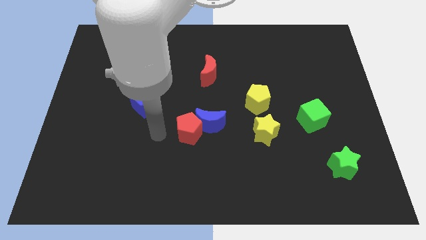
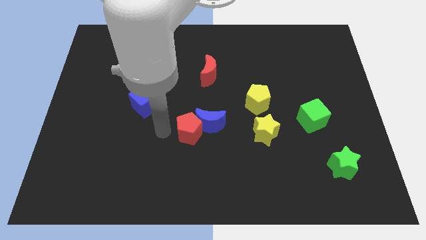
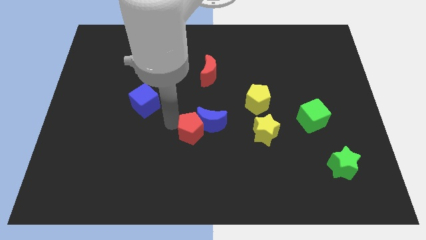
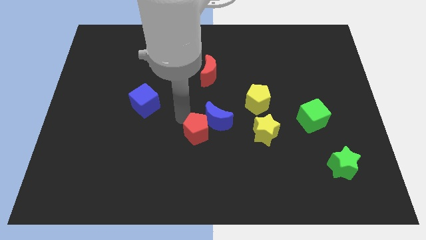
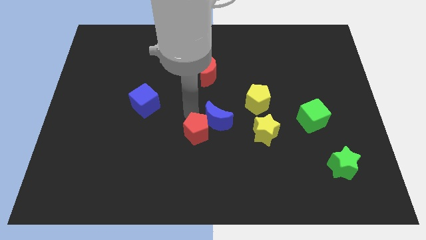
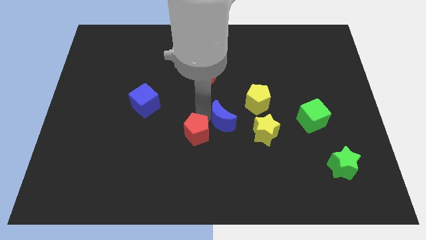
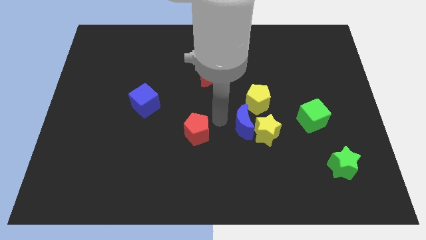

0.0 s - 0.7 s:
pull the red pentagon apart from the blue moon

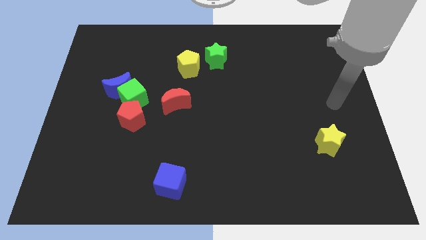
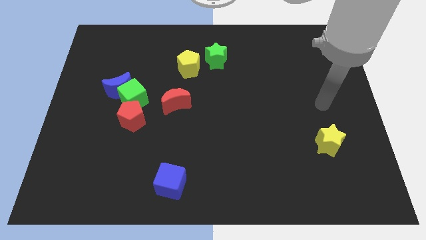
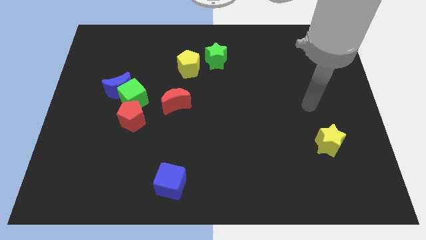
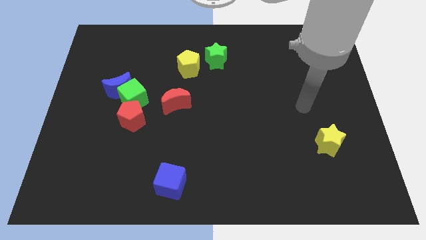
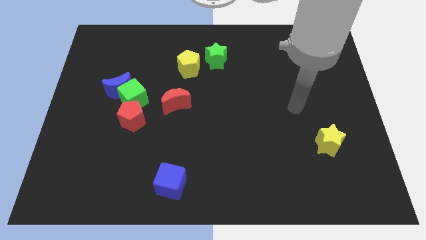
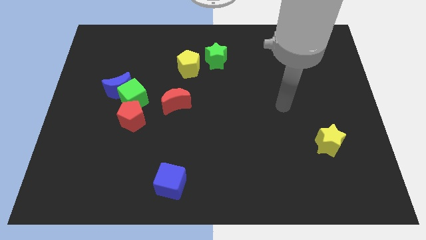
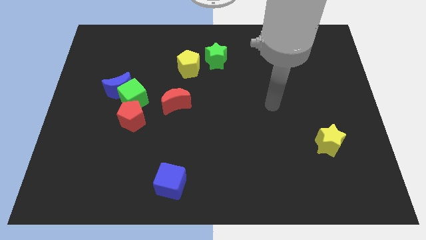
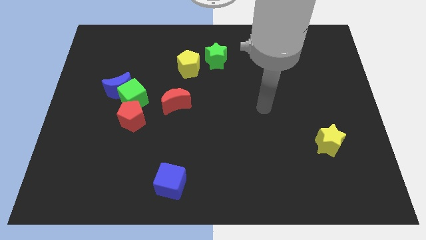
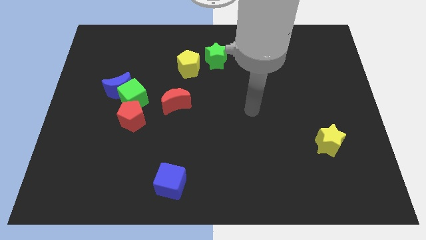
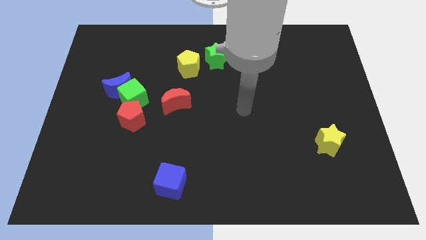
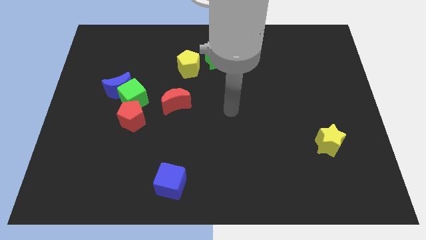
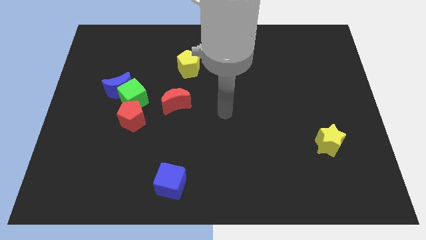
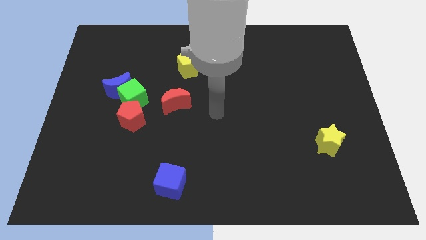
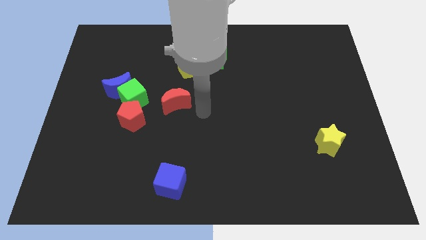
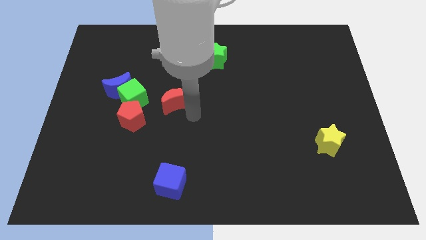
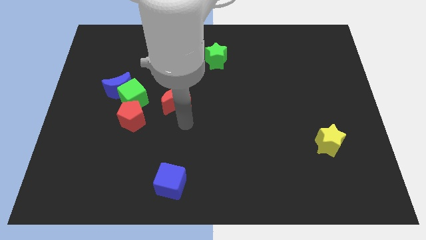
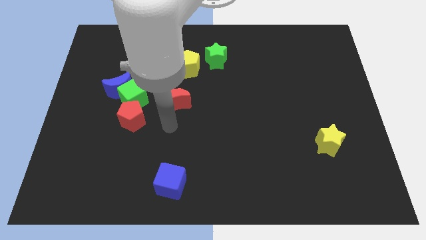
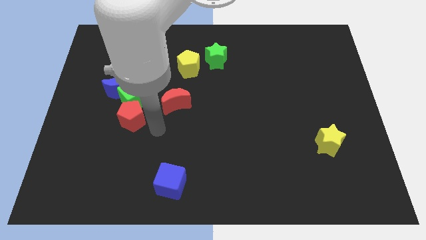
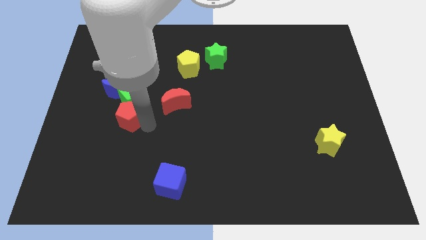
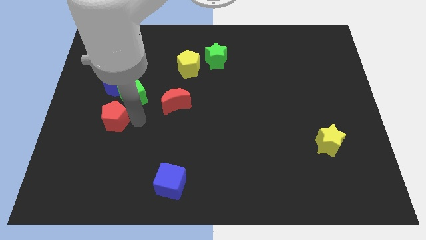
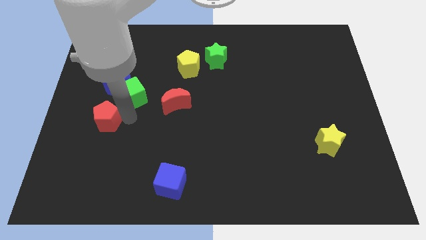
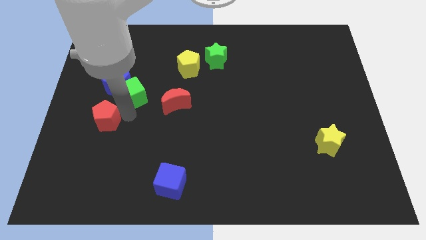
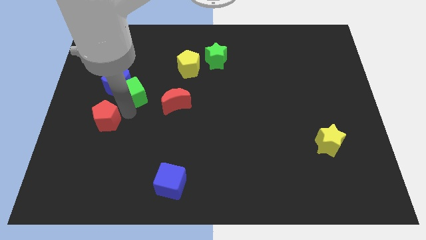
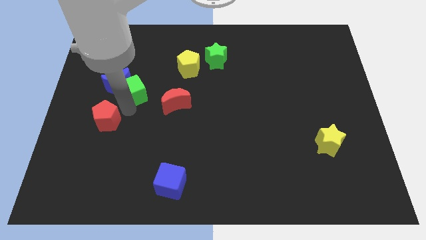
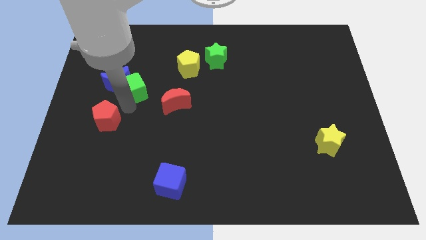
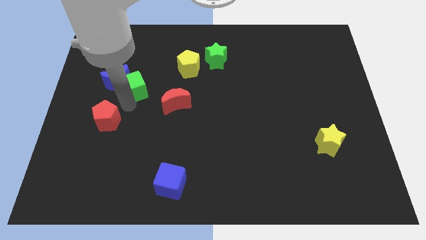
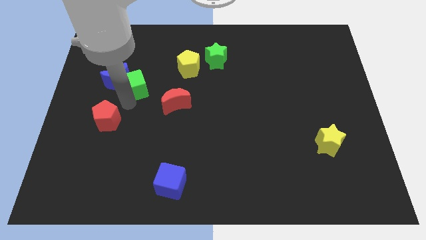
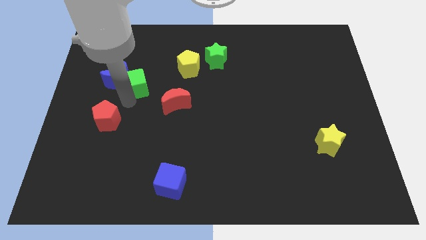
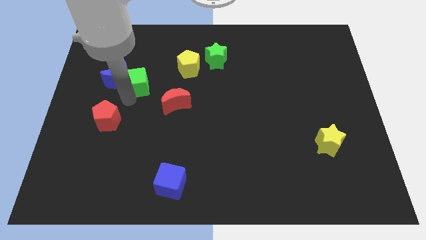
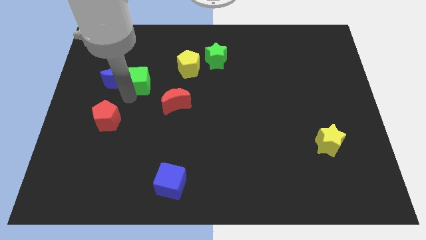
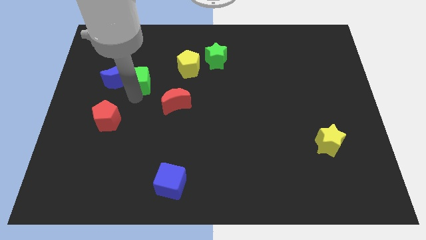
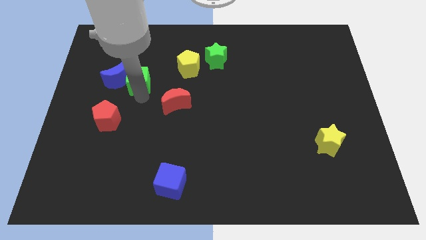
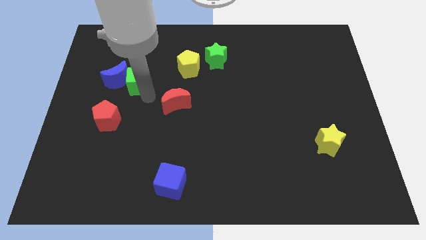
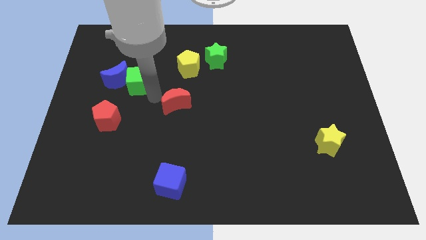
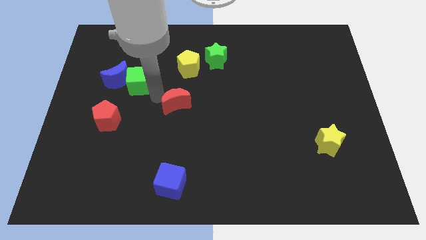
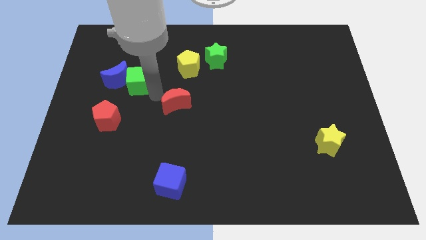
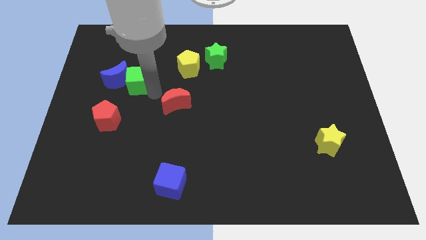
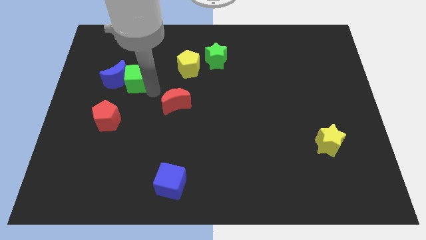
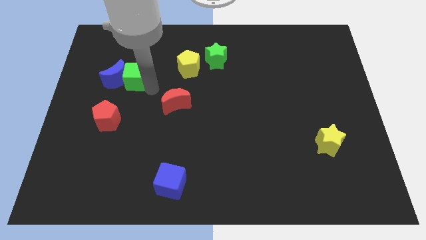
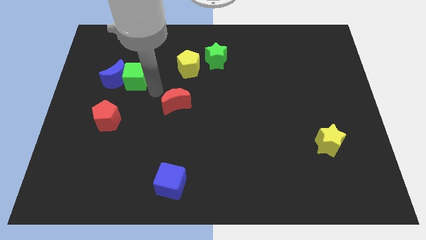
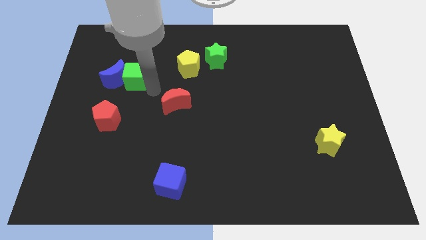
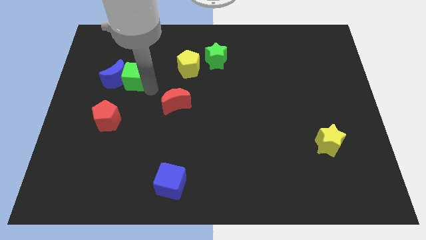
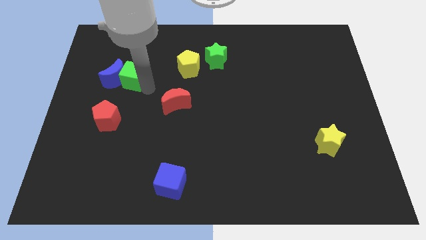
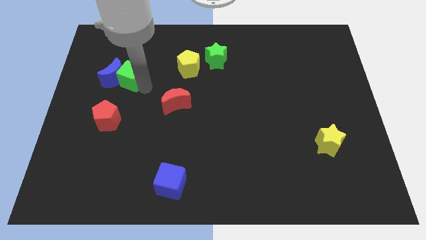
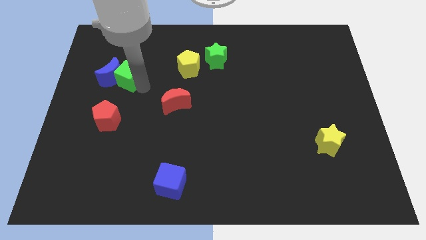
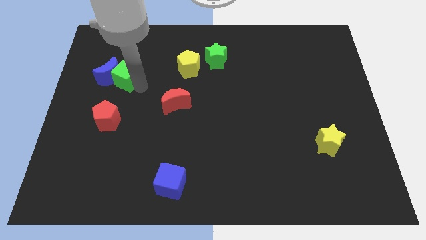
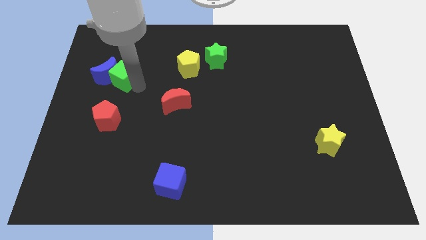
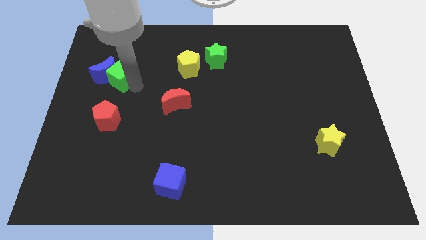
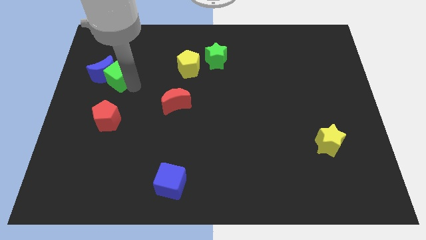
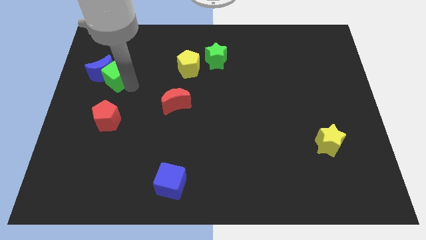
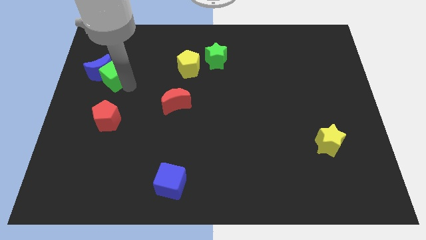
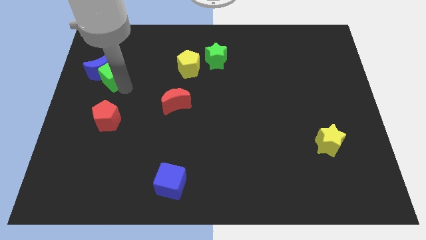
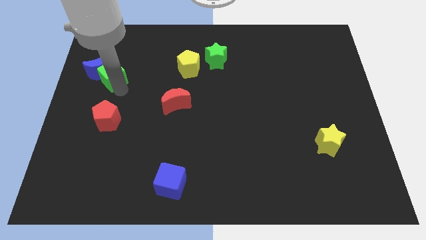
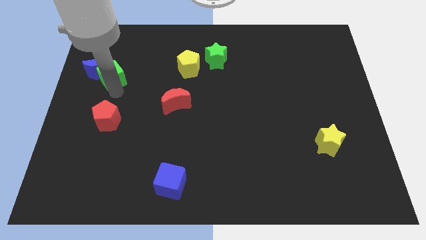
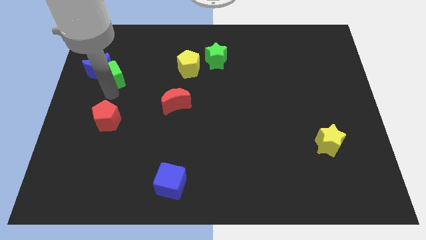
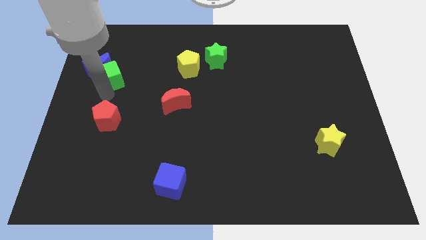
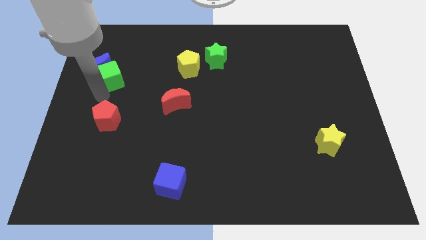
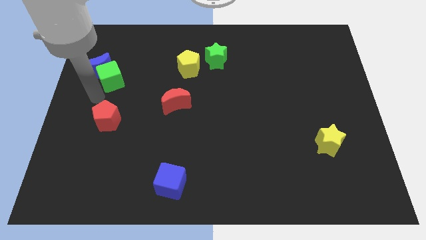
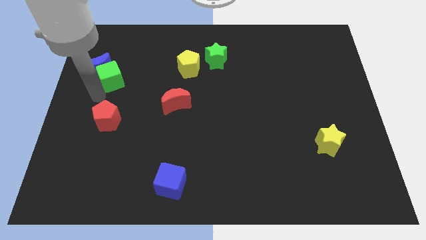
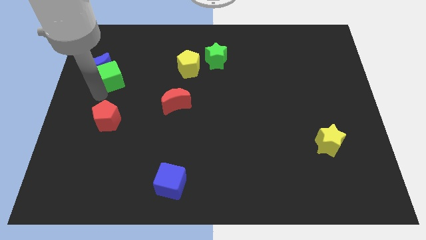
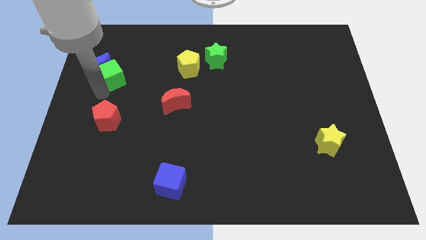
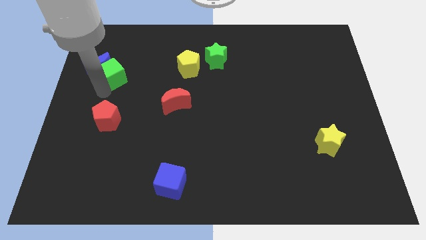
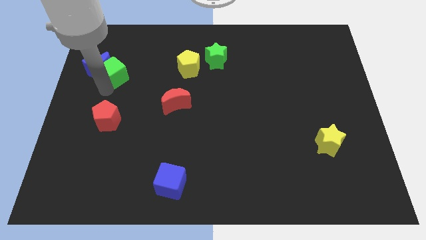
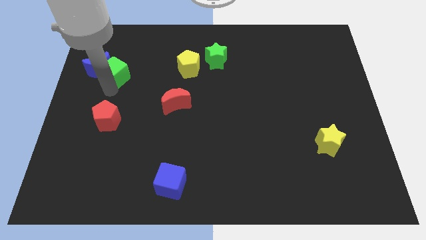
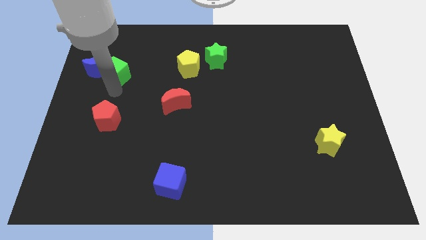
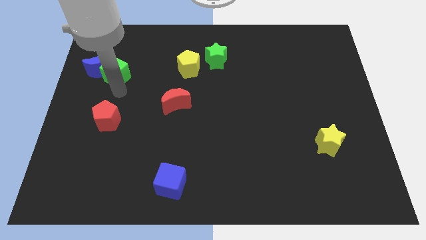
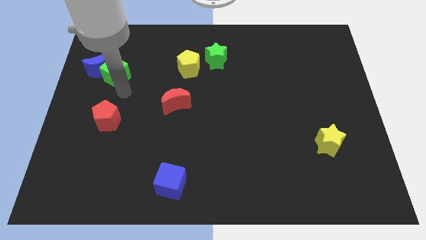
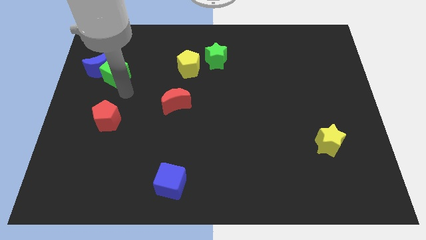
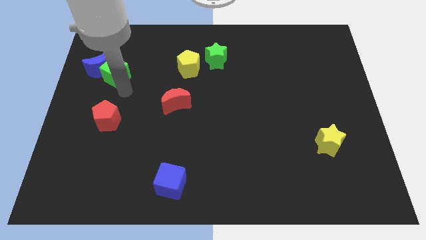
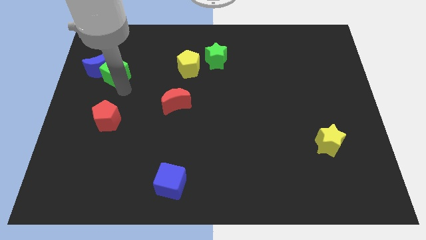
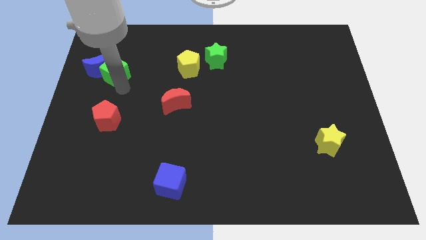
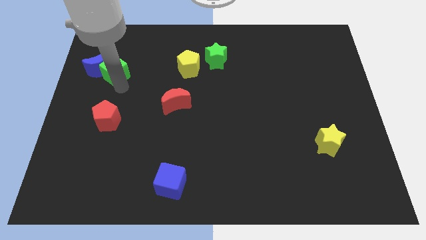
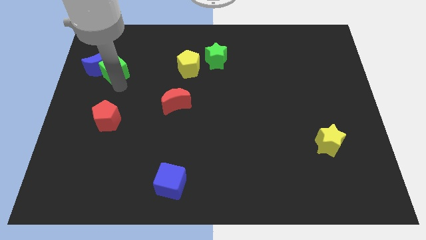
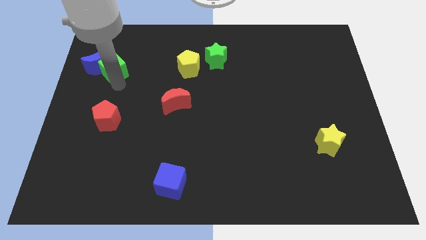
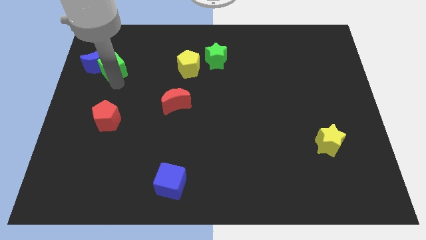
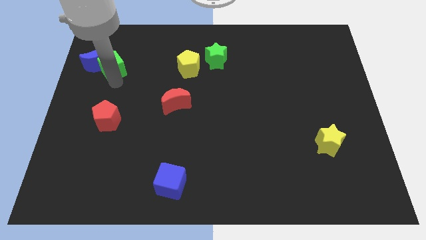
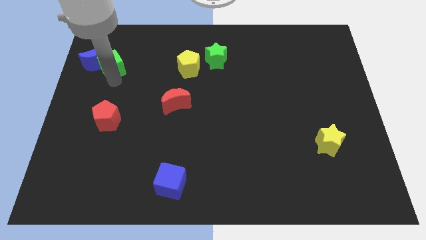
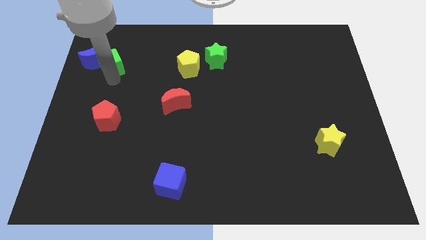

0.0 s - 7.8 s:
move the green cube away from the clump

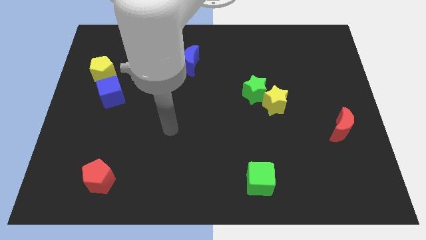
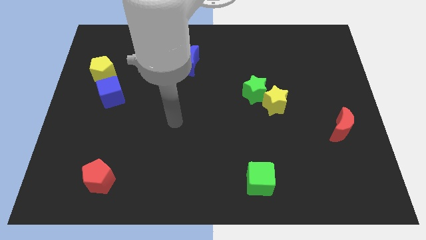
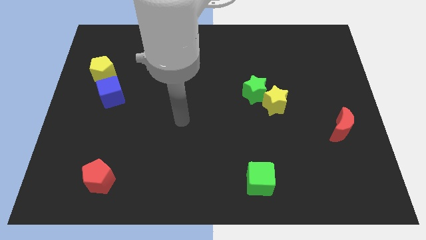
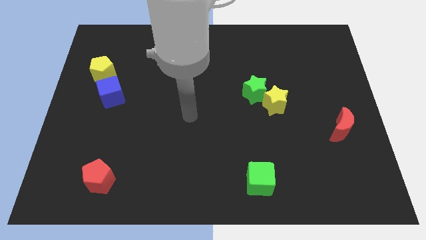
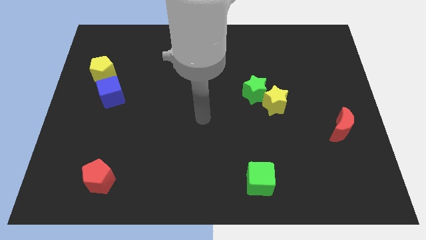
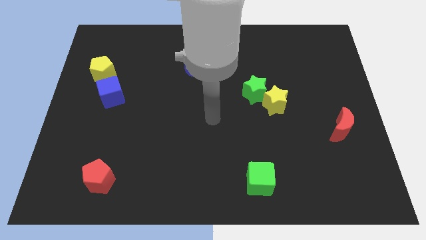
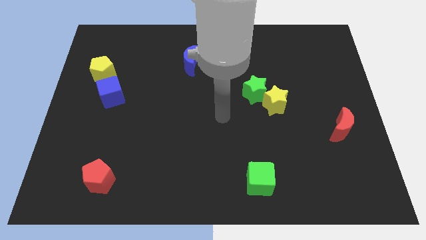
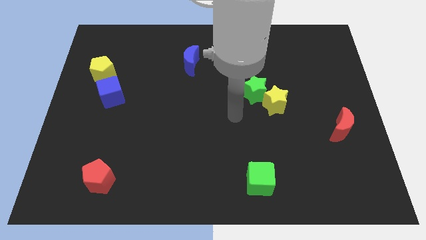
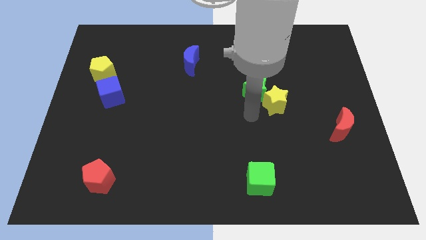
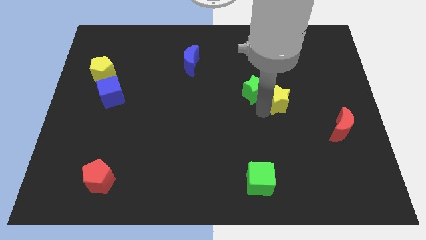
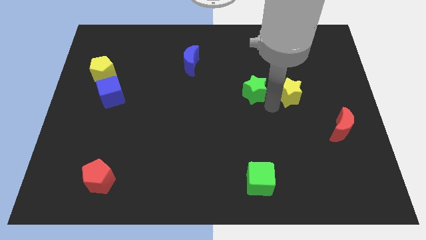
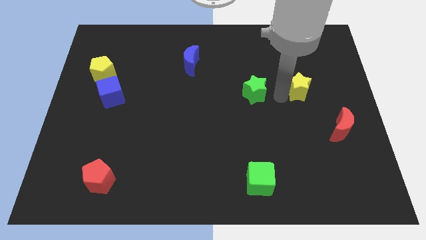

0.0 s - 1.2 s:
move the green star away from the yellow star
